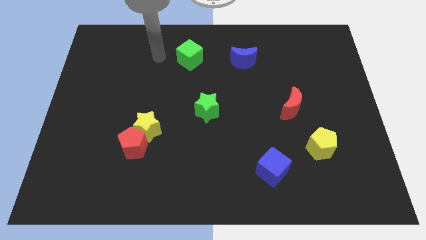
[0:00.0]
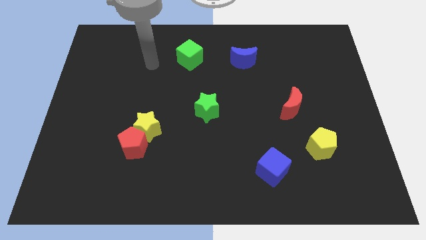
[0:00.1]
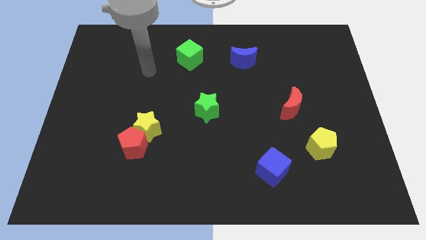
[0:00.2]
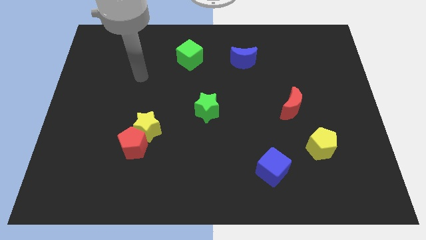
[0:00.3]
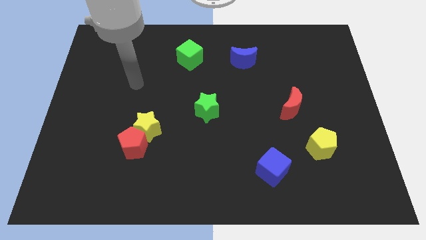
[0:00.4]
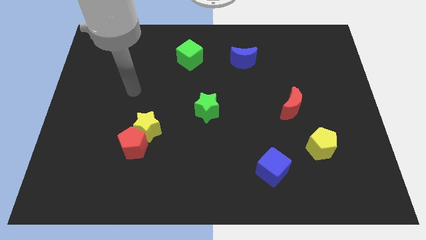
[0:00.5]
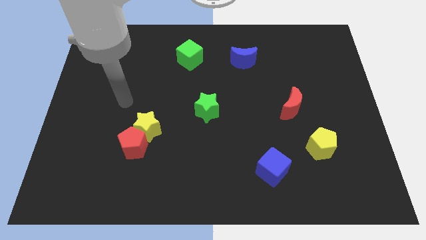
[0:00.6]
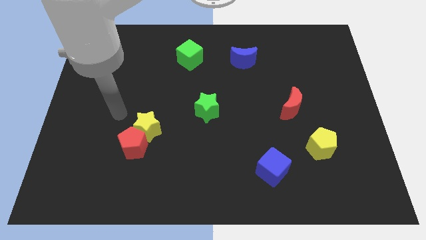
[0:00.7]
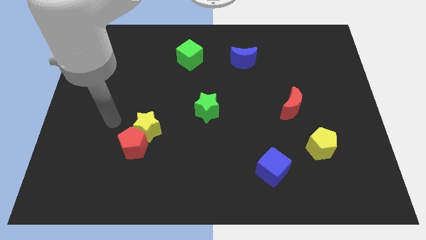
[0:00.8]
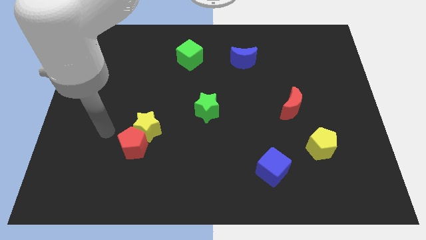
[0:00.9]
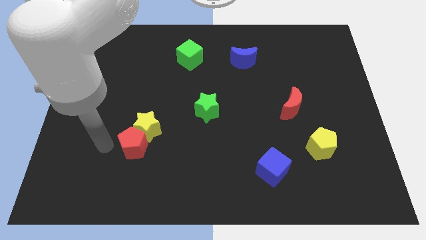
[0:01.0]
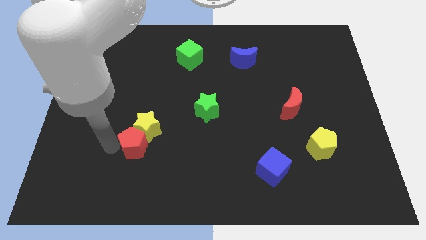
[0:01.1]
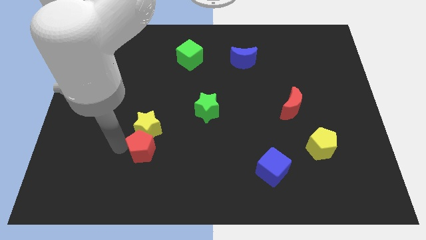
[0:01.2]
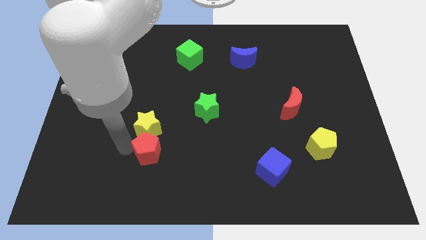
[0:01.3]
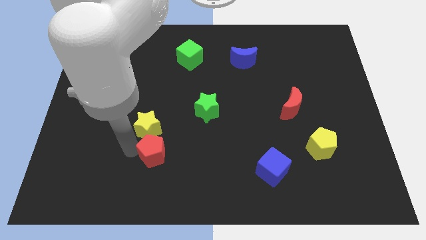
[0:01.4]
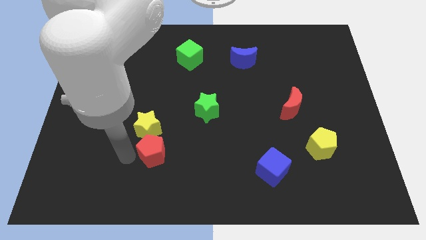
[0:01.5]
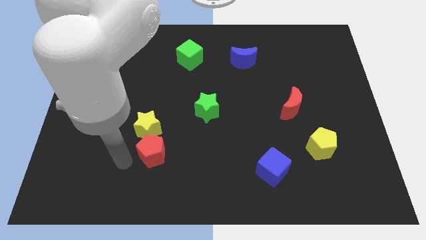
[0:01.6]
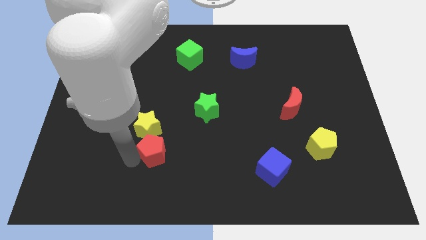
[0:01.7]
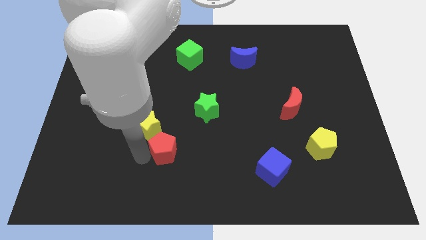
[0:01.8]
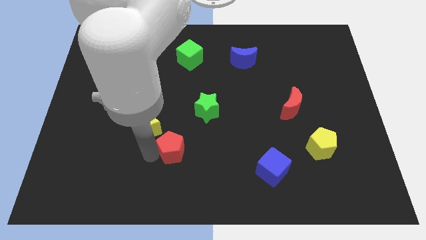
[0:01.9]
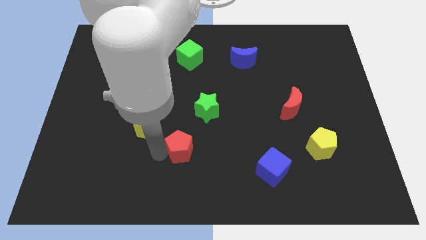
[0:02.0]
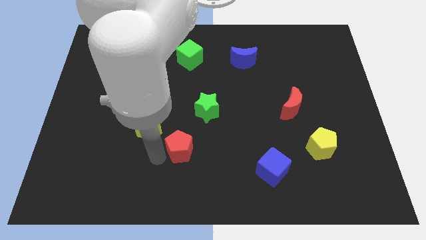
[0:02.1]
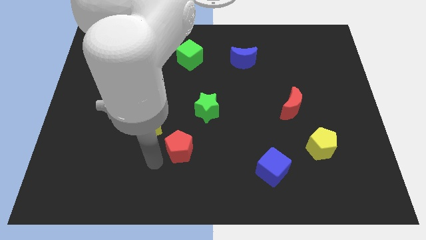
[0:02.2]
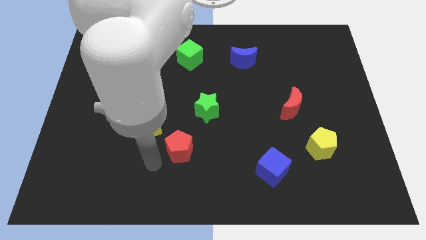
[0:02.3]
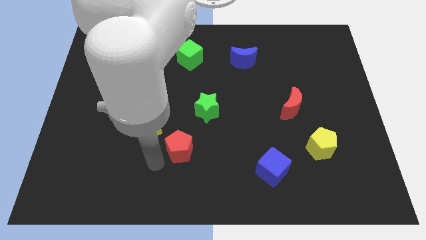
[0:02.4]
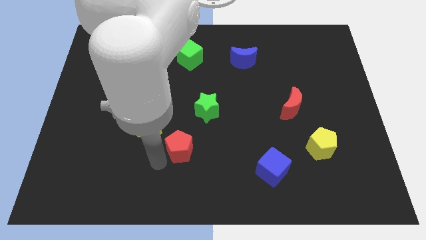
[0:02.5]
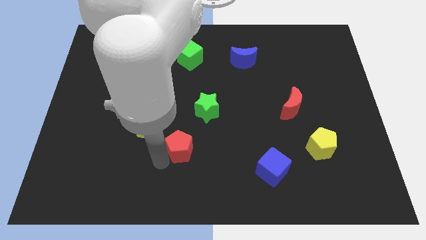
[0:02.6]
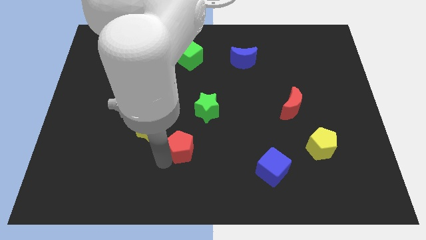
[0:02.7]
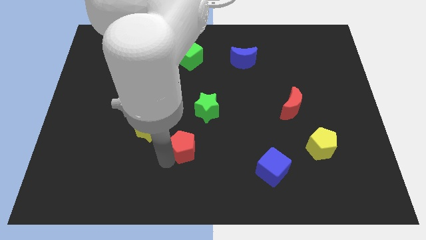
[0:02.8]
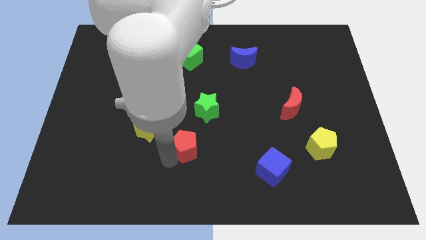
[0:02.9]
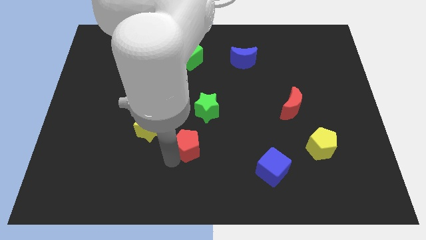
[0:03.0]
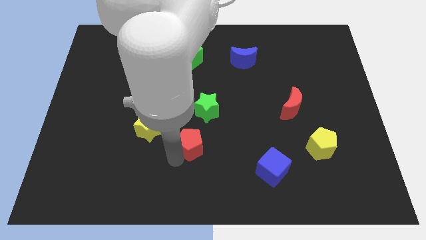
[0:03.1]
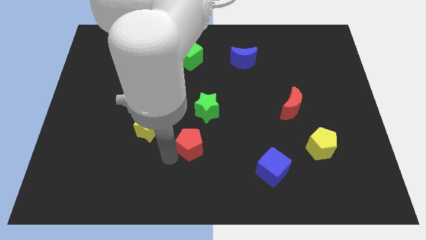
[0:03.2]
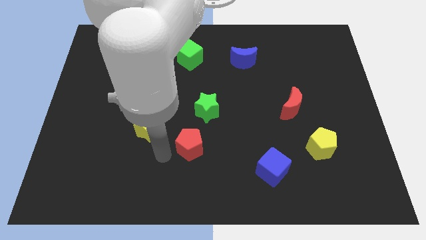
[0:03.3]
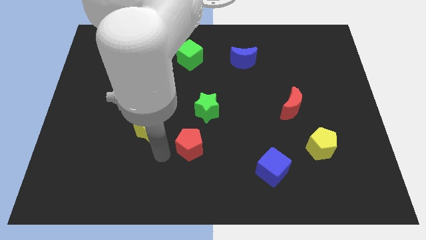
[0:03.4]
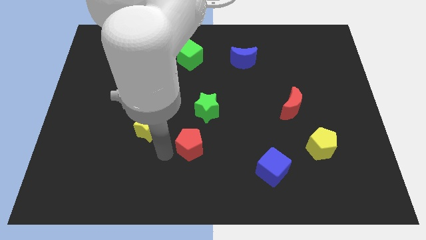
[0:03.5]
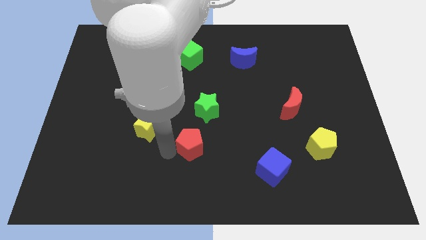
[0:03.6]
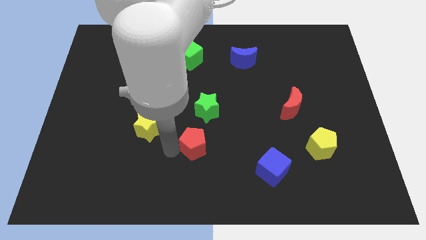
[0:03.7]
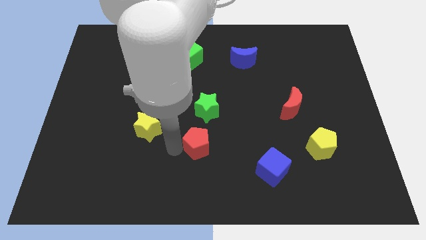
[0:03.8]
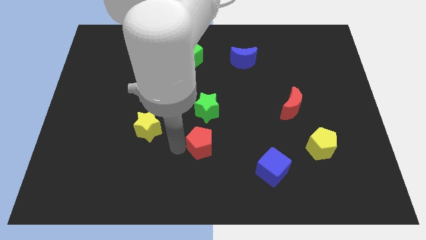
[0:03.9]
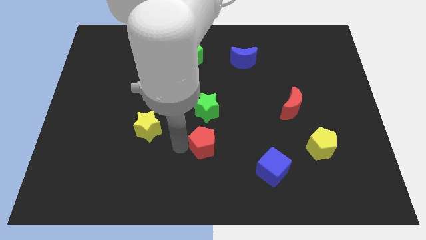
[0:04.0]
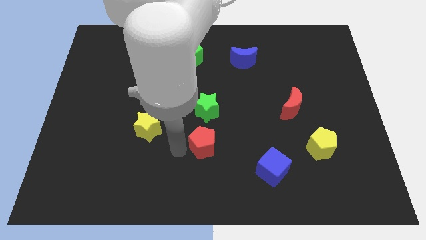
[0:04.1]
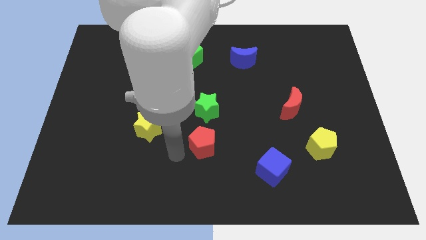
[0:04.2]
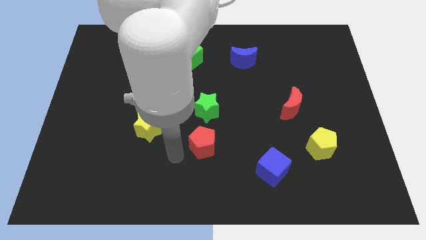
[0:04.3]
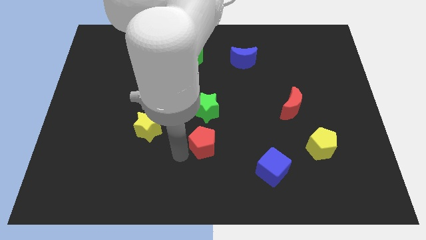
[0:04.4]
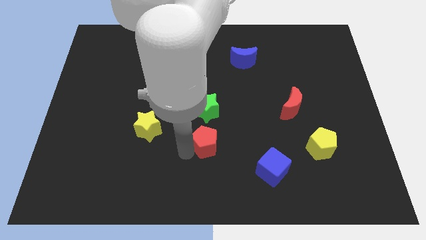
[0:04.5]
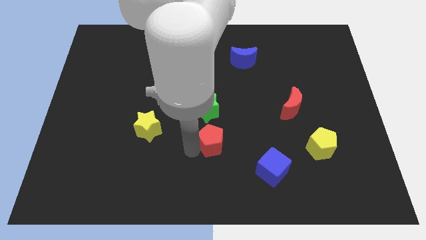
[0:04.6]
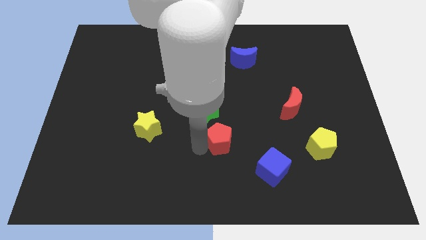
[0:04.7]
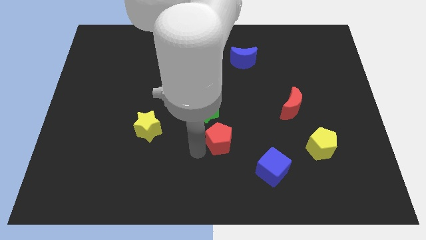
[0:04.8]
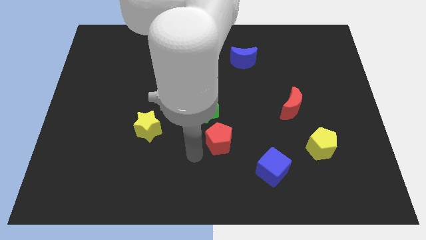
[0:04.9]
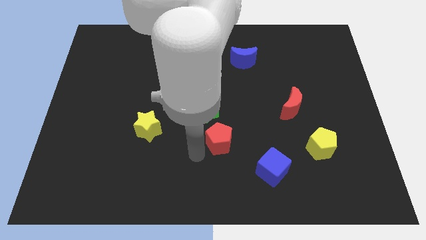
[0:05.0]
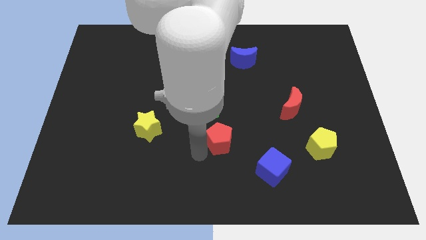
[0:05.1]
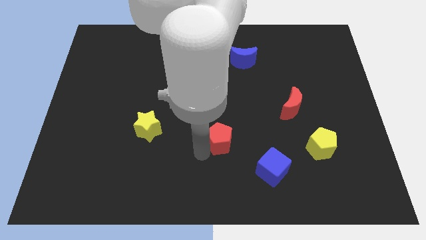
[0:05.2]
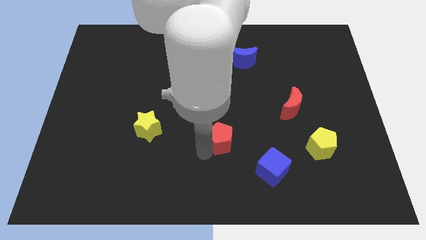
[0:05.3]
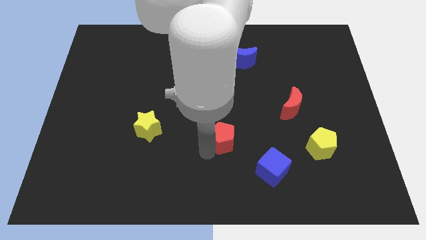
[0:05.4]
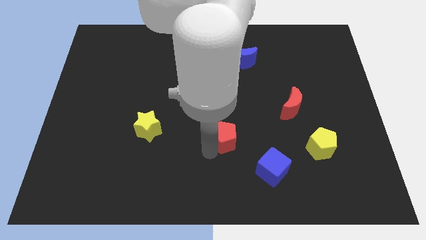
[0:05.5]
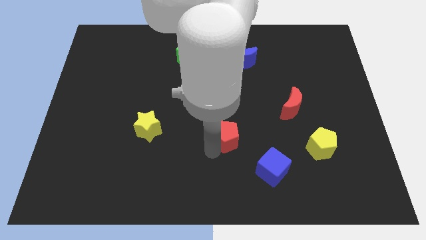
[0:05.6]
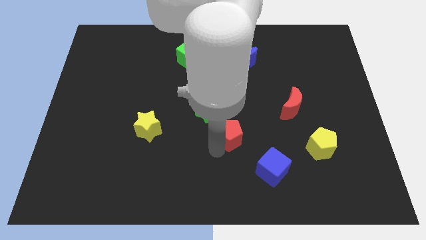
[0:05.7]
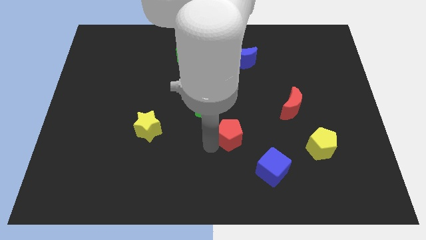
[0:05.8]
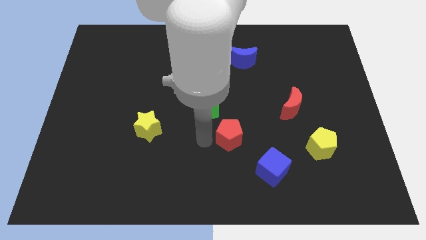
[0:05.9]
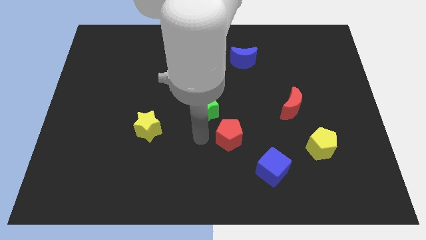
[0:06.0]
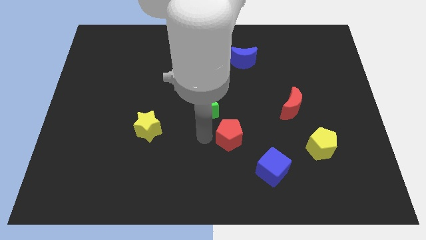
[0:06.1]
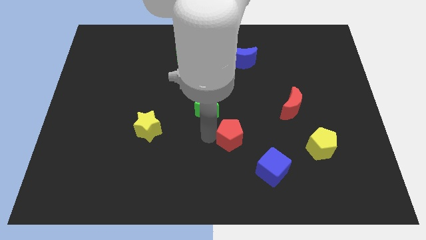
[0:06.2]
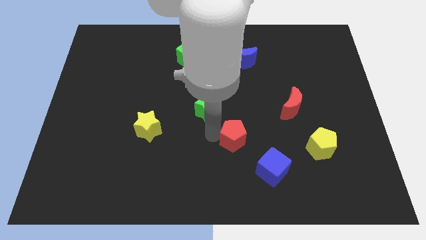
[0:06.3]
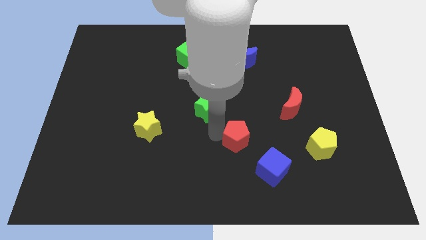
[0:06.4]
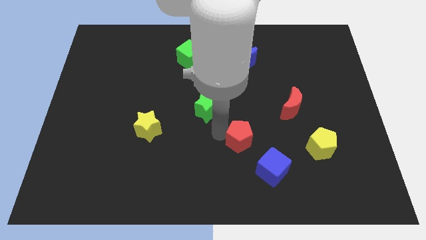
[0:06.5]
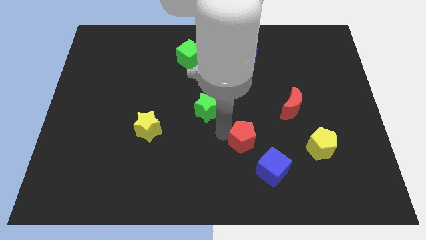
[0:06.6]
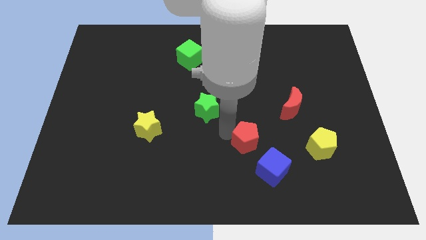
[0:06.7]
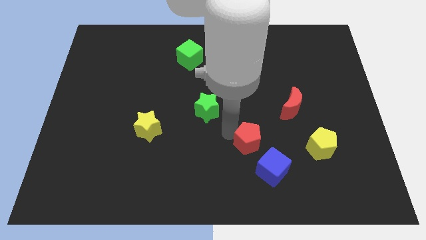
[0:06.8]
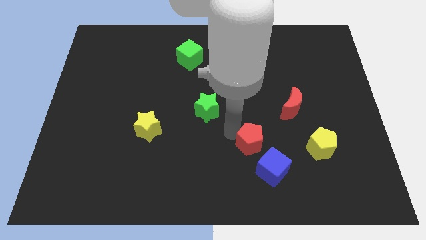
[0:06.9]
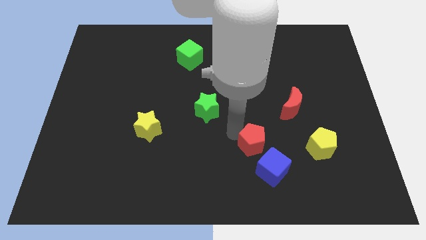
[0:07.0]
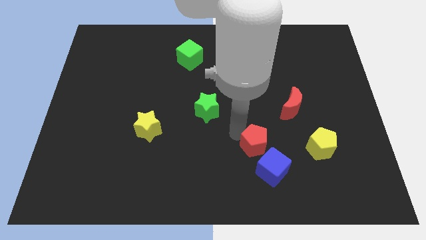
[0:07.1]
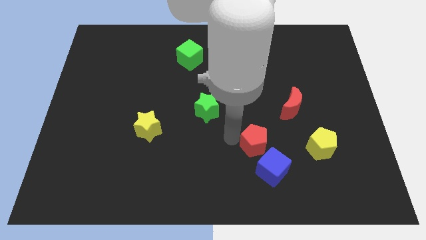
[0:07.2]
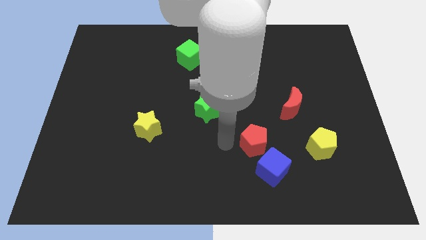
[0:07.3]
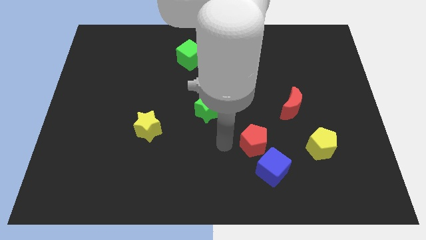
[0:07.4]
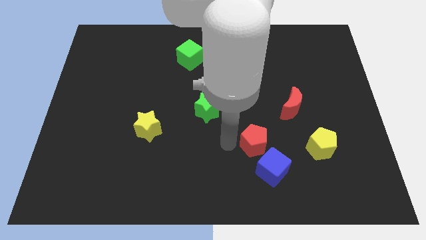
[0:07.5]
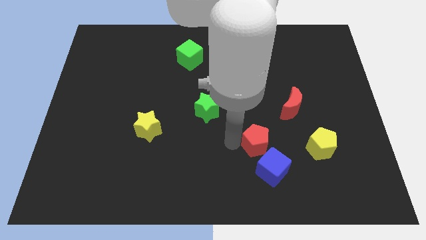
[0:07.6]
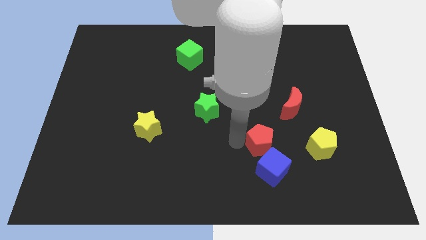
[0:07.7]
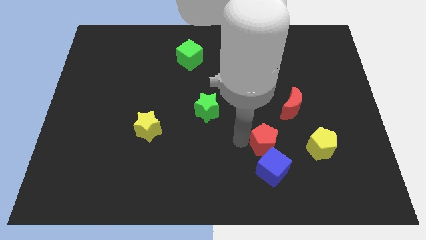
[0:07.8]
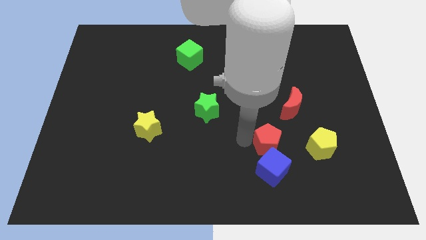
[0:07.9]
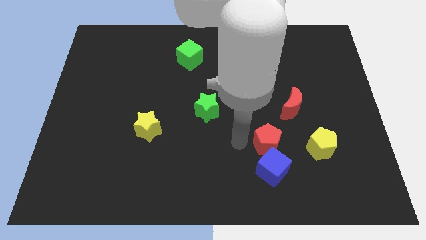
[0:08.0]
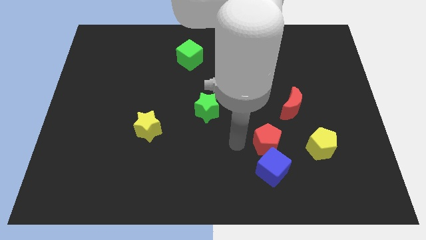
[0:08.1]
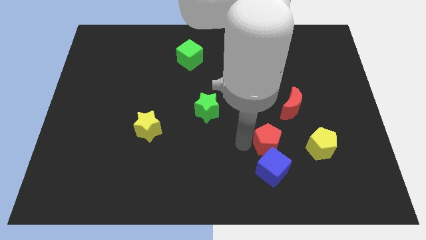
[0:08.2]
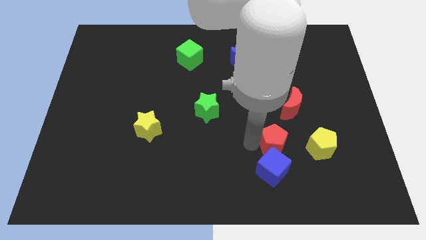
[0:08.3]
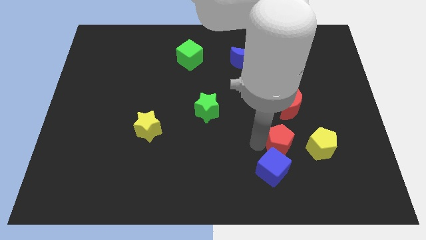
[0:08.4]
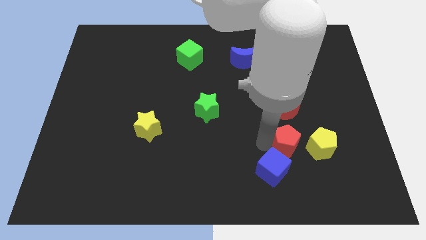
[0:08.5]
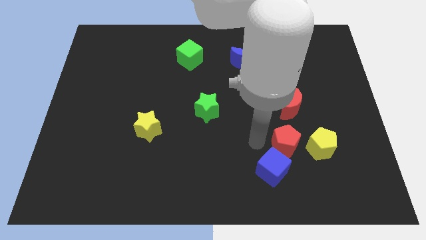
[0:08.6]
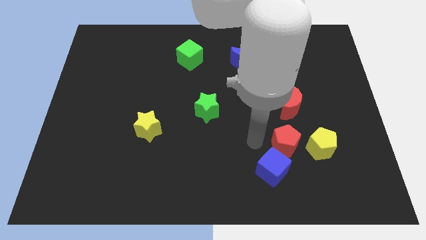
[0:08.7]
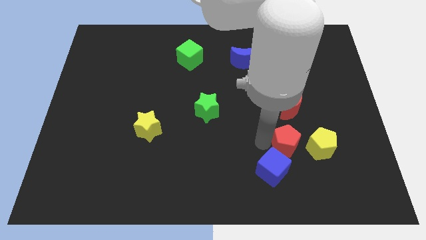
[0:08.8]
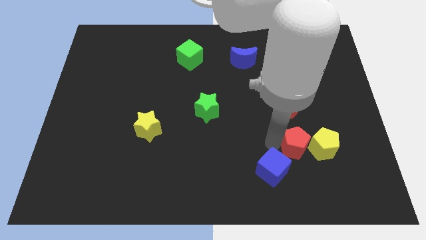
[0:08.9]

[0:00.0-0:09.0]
put the red pentagon close to the yellow pentagon

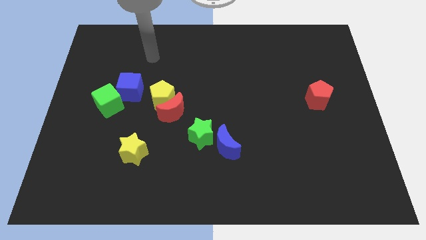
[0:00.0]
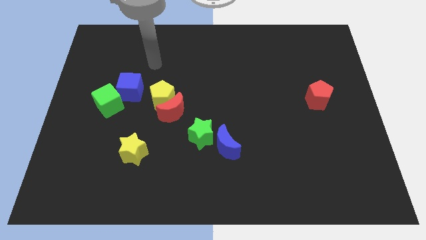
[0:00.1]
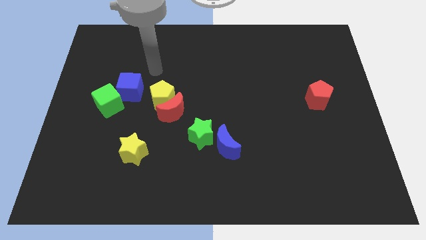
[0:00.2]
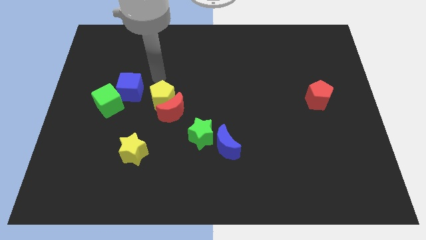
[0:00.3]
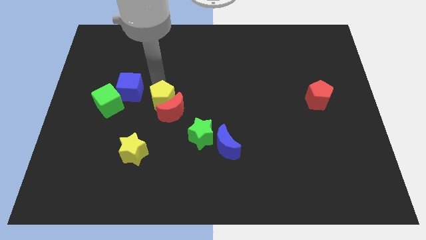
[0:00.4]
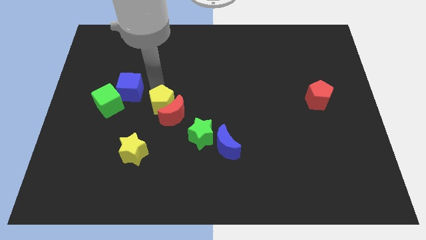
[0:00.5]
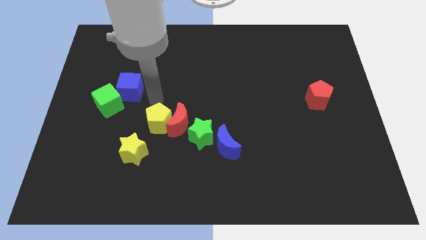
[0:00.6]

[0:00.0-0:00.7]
push the red moon next to the green star
